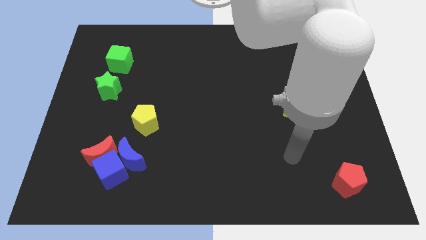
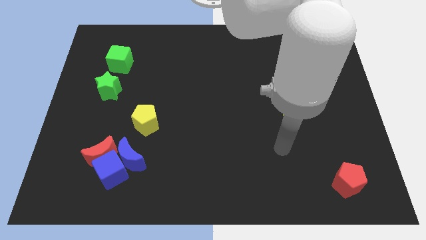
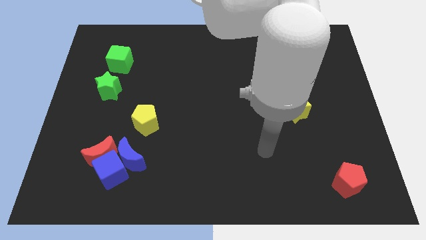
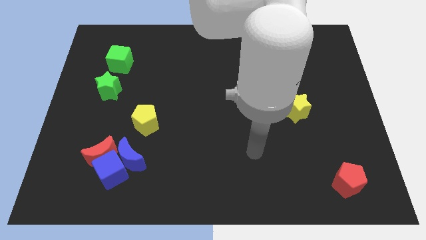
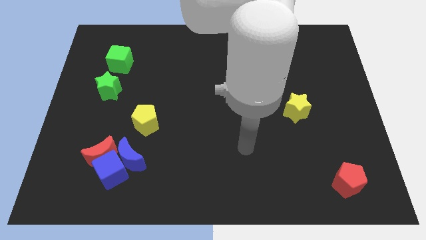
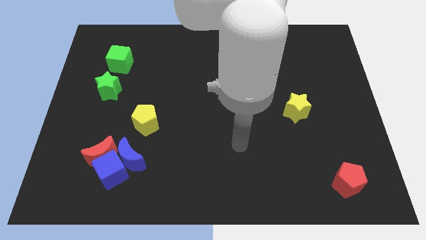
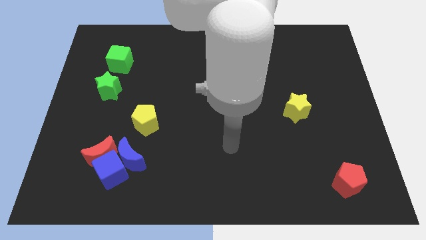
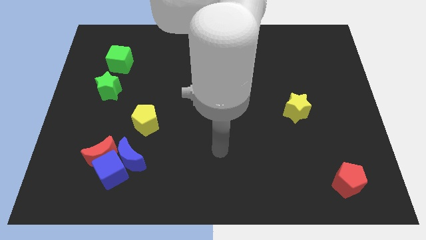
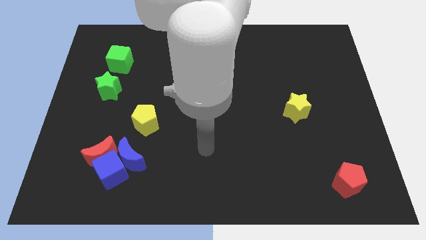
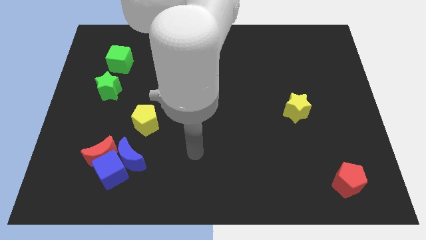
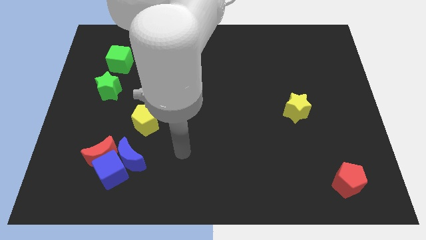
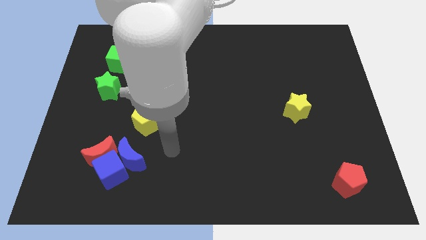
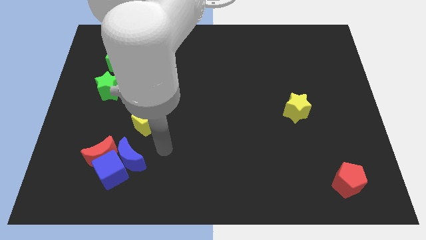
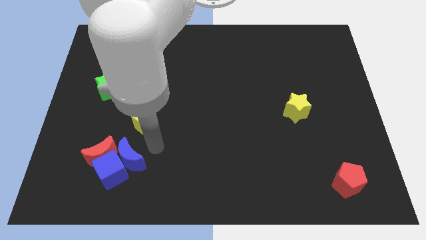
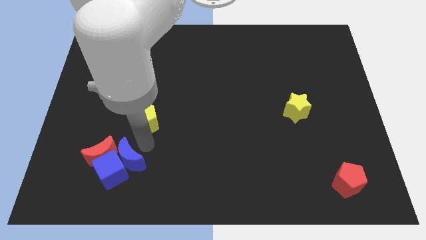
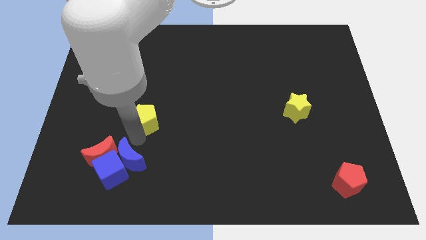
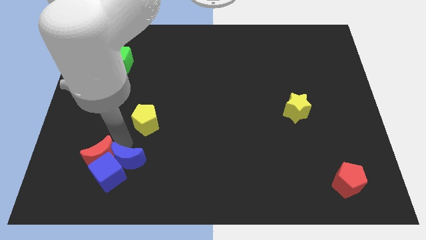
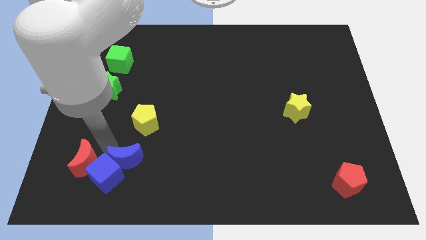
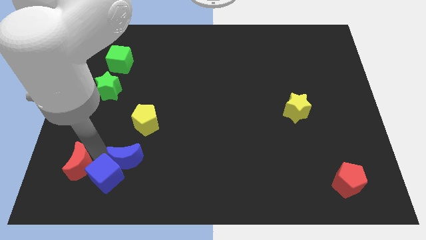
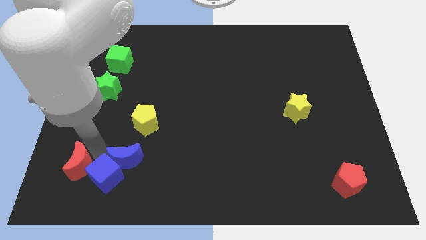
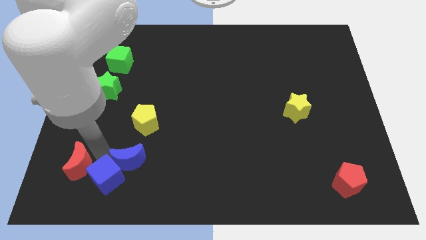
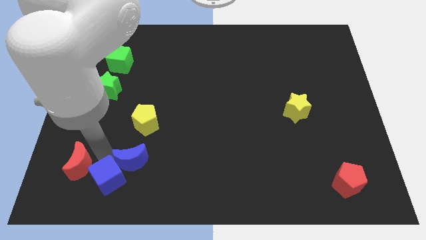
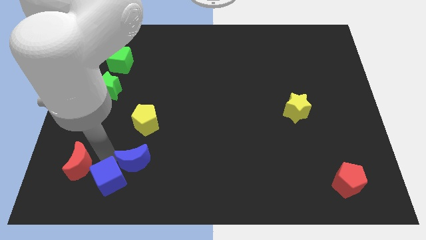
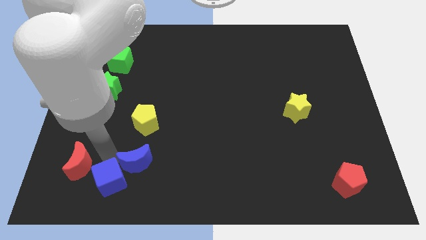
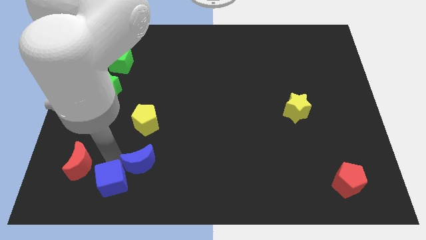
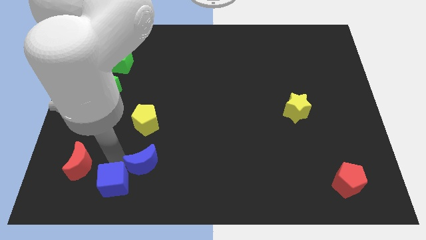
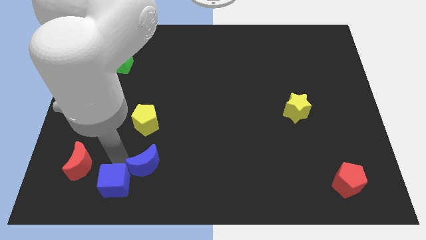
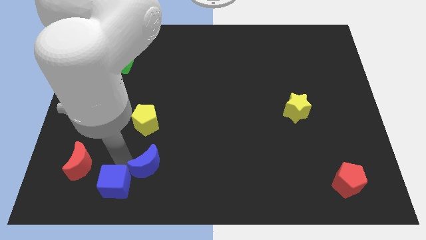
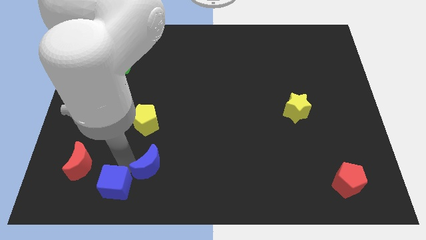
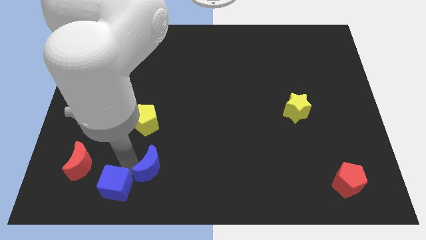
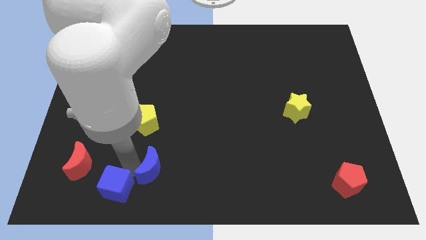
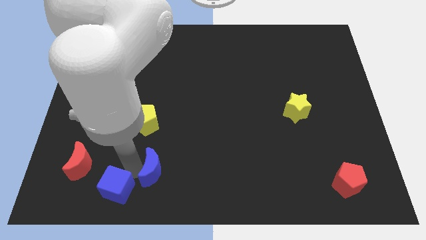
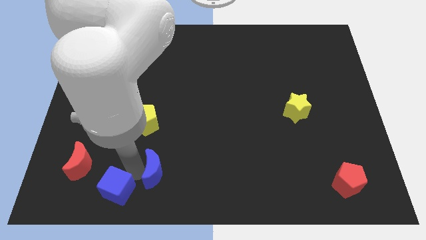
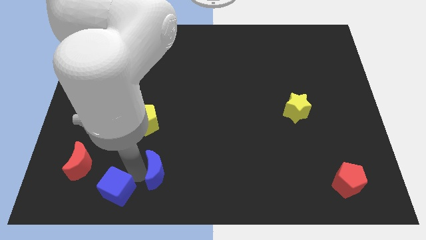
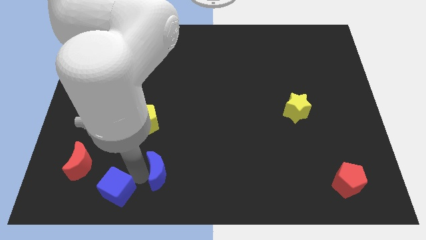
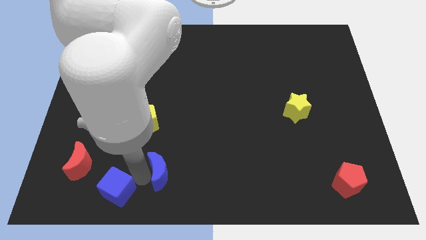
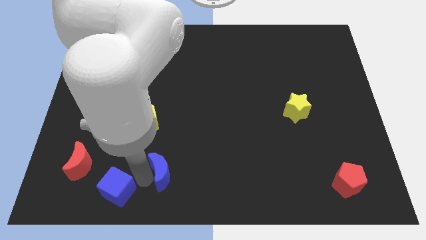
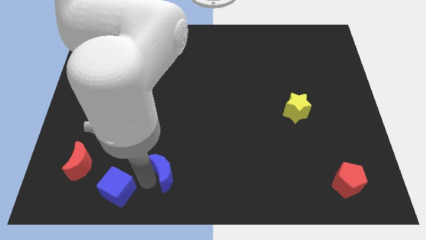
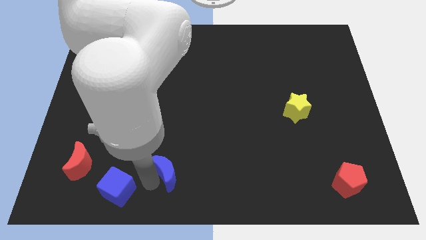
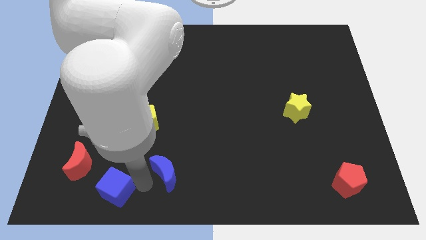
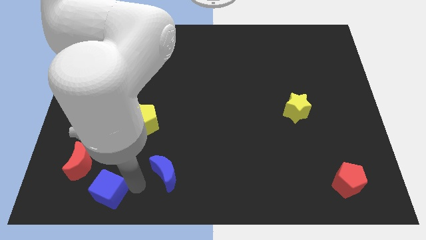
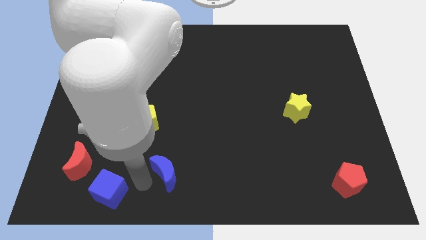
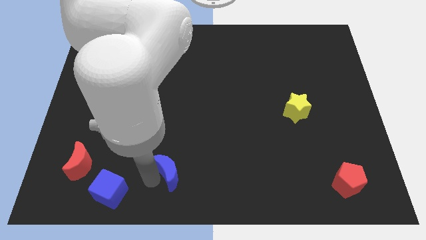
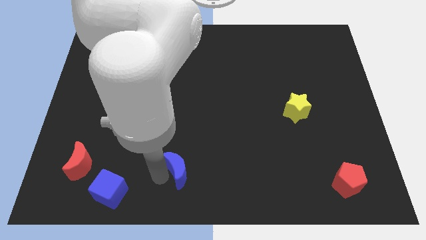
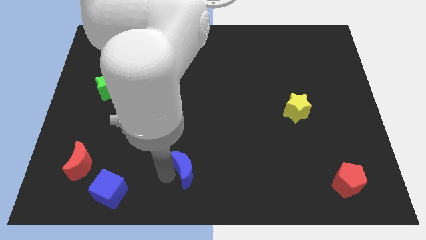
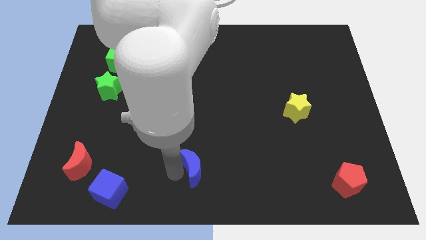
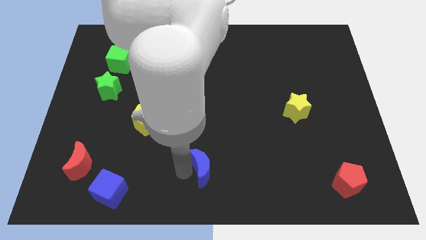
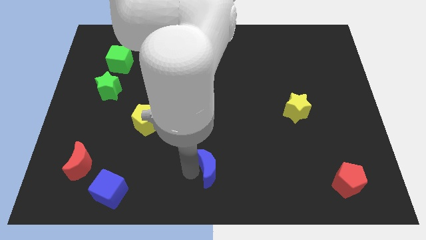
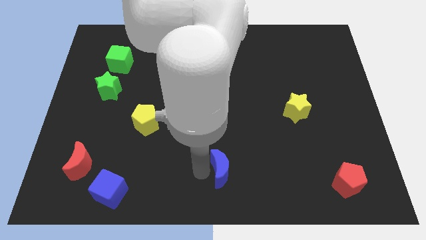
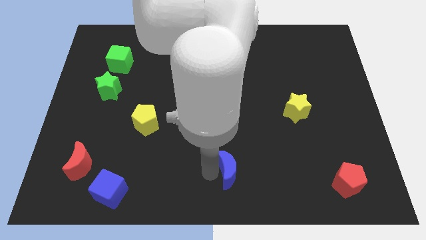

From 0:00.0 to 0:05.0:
slide the blue moon right

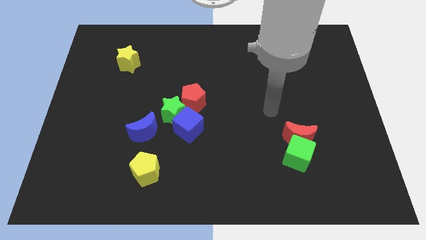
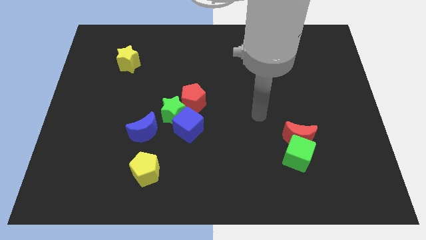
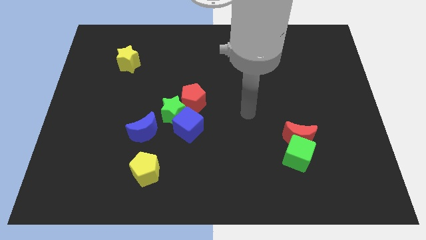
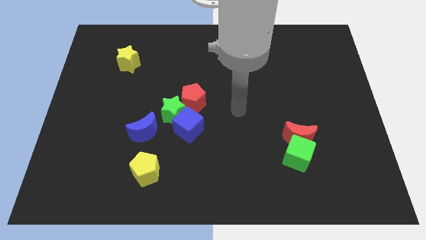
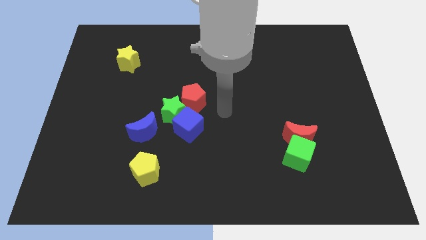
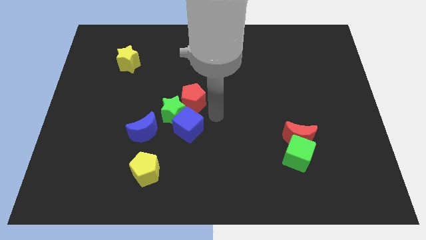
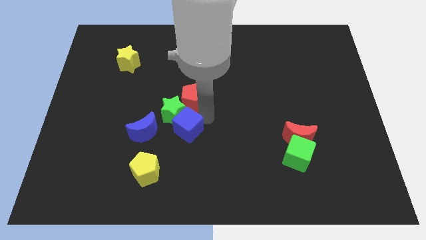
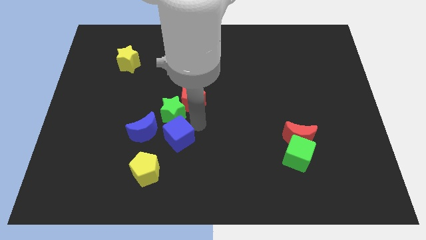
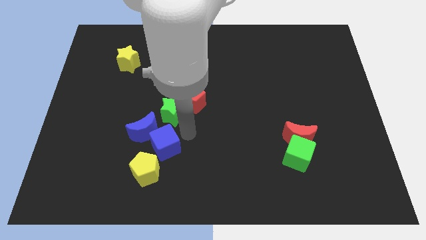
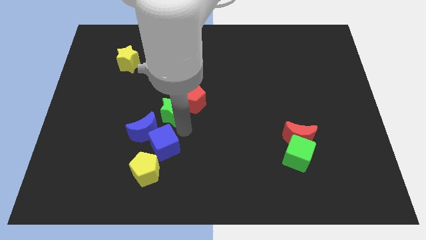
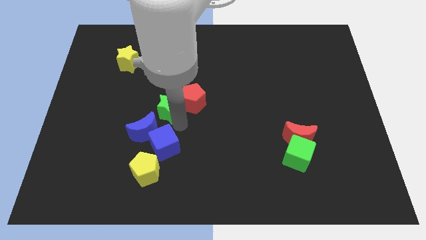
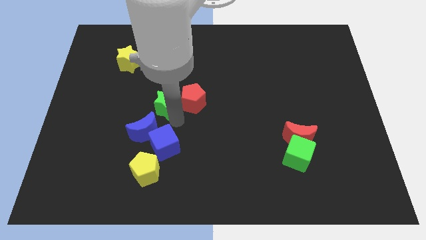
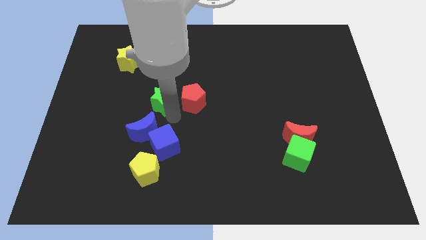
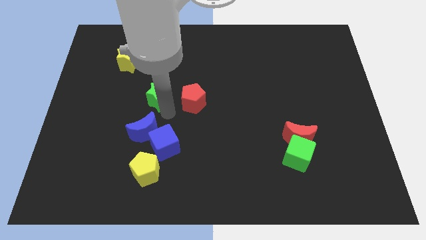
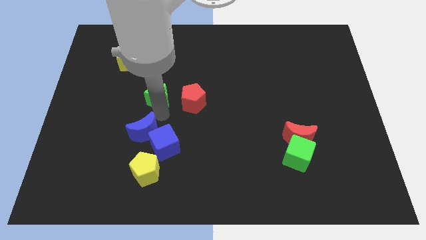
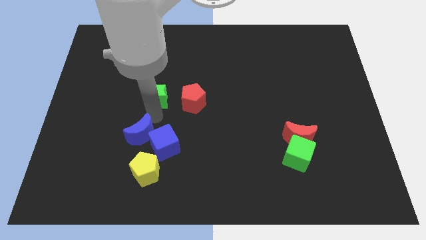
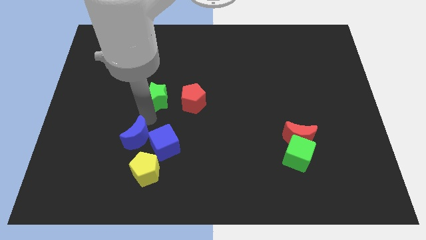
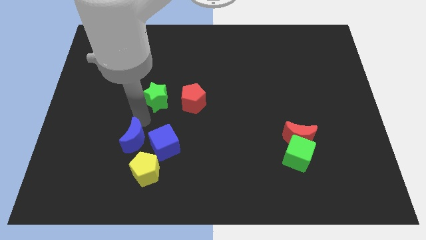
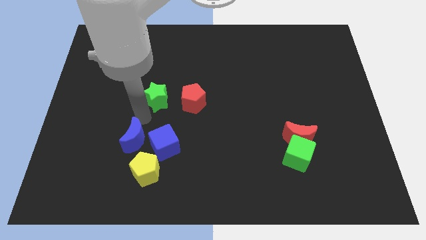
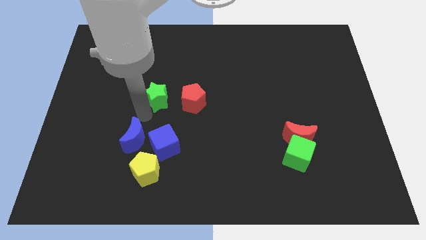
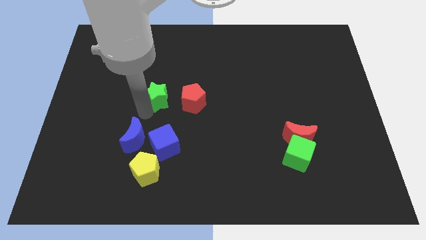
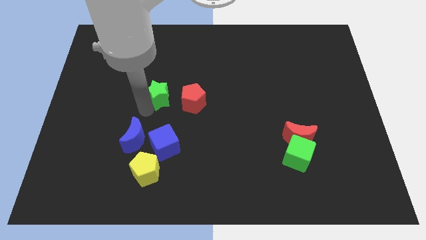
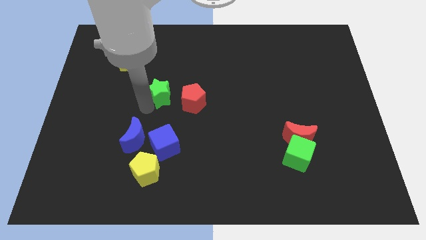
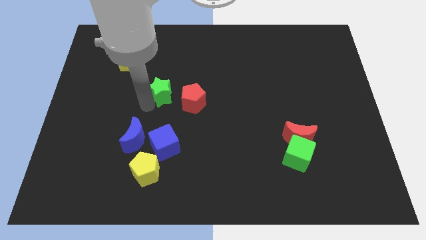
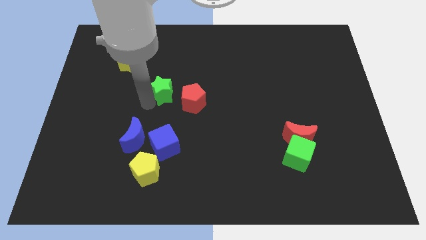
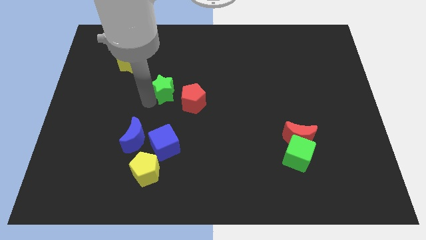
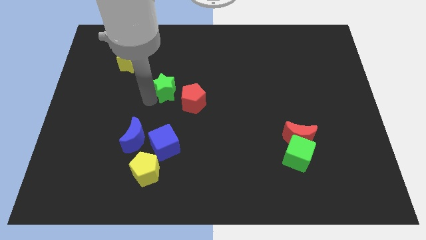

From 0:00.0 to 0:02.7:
push the green star up somewhat
